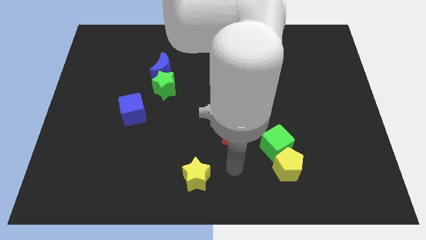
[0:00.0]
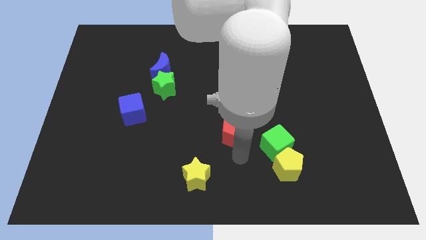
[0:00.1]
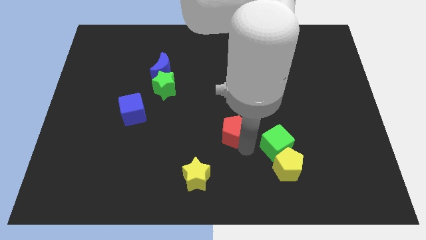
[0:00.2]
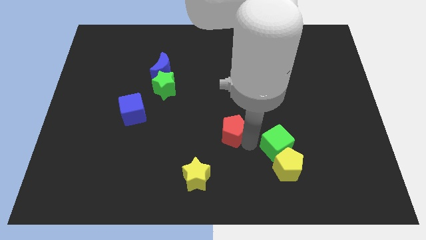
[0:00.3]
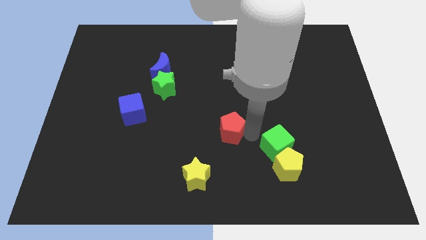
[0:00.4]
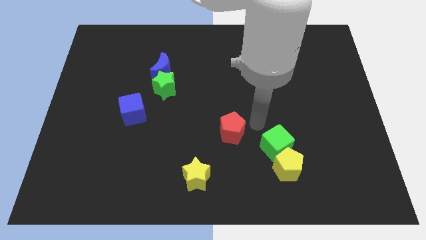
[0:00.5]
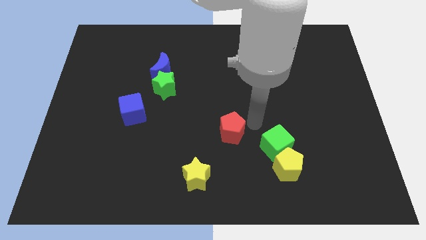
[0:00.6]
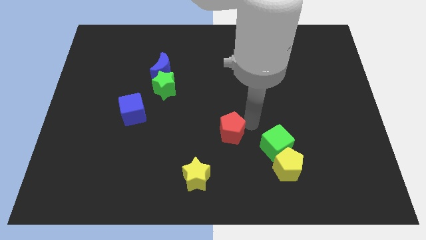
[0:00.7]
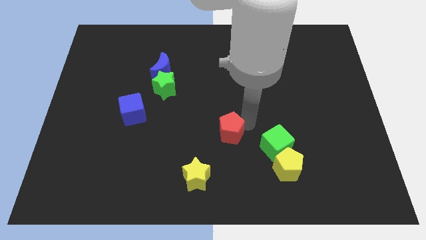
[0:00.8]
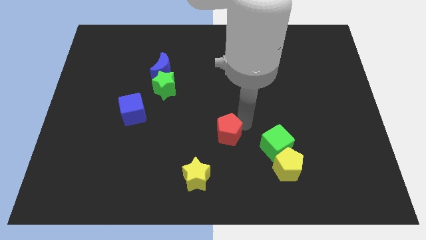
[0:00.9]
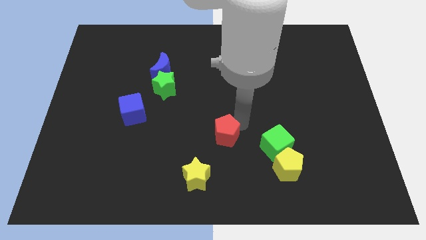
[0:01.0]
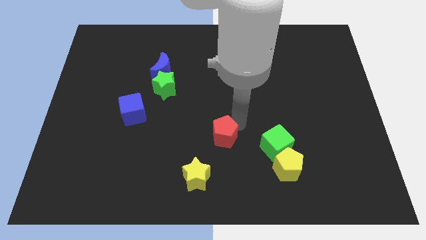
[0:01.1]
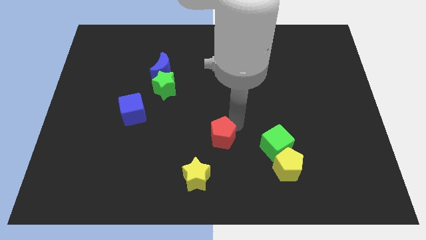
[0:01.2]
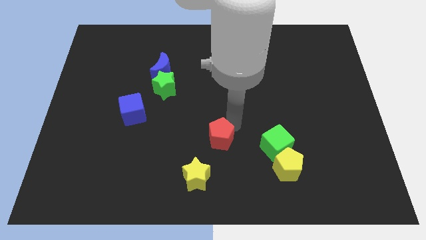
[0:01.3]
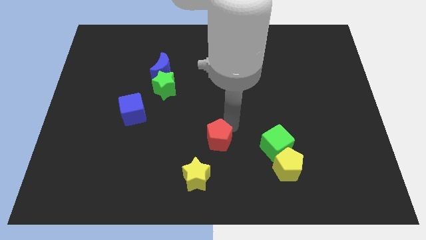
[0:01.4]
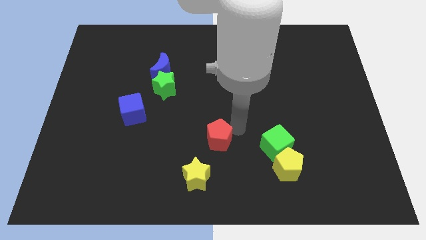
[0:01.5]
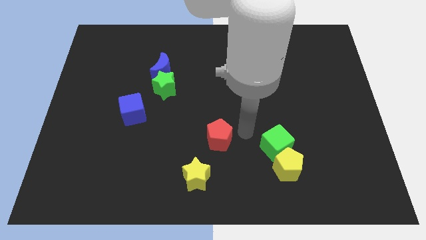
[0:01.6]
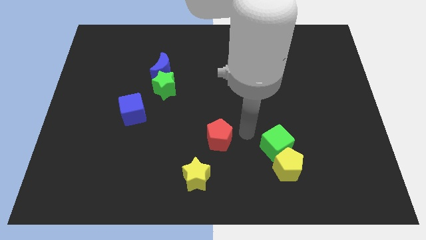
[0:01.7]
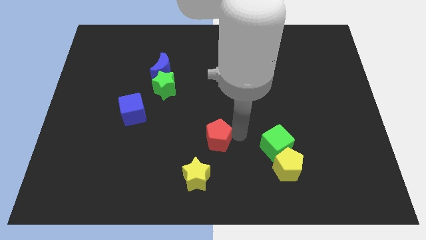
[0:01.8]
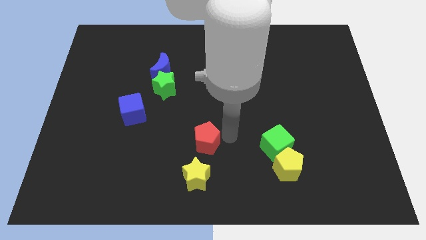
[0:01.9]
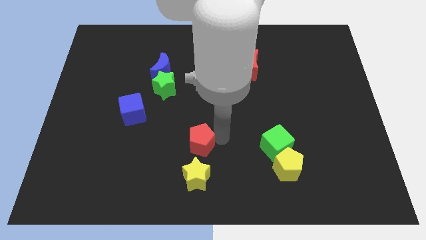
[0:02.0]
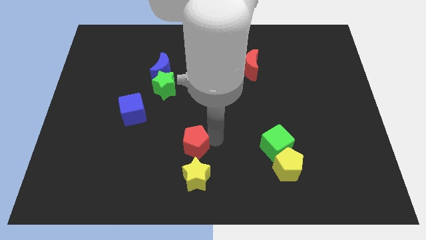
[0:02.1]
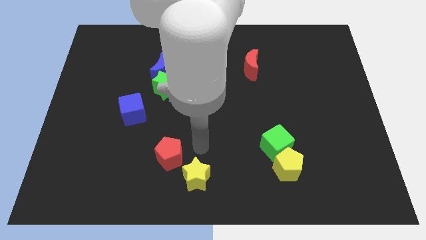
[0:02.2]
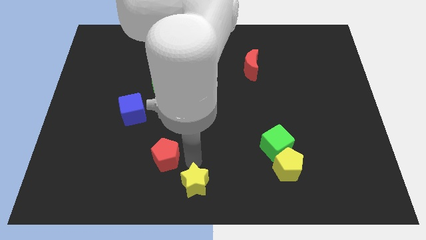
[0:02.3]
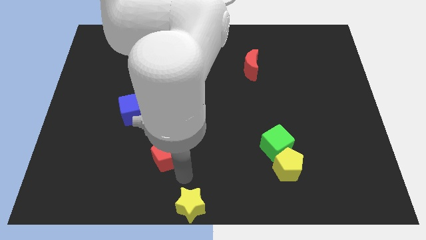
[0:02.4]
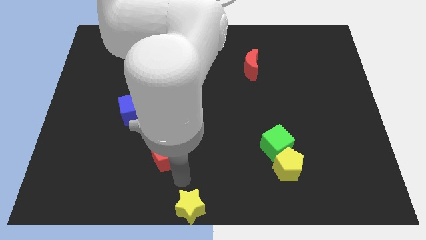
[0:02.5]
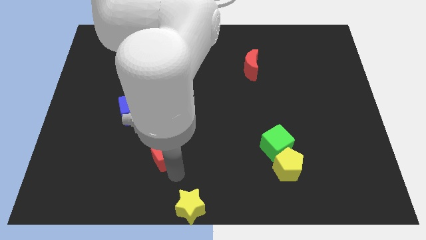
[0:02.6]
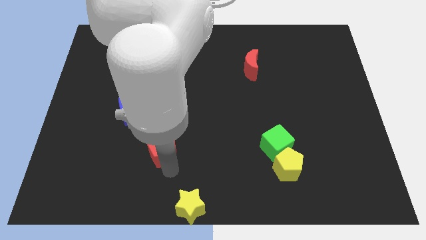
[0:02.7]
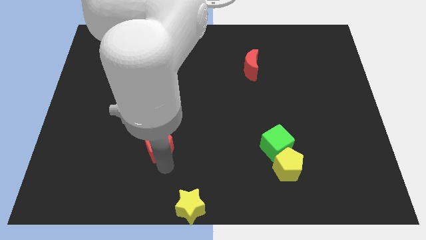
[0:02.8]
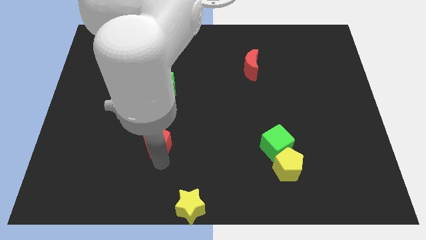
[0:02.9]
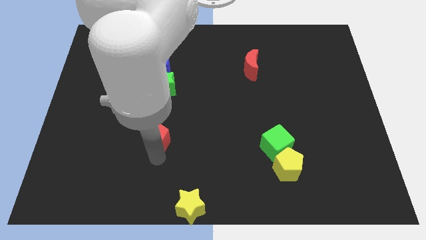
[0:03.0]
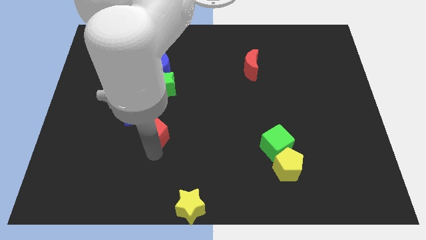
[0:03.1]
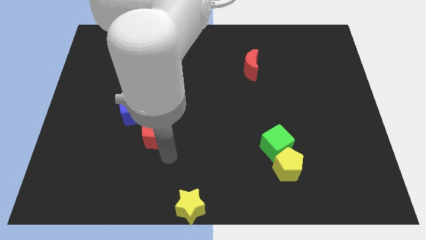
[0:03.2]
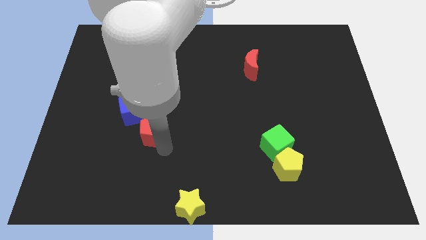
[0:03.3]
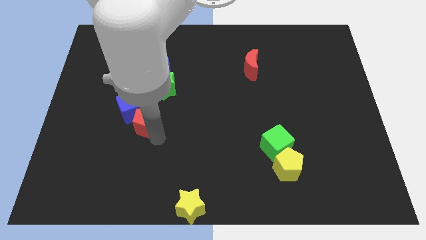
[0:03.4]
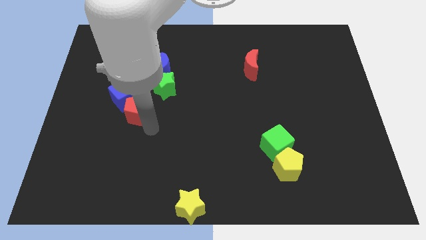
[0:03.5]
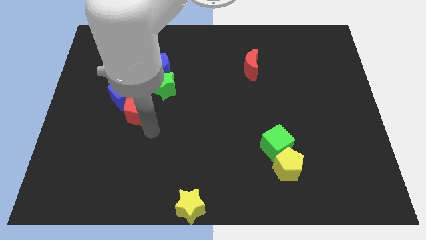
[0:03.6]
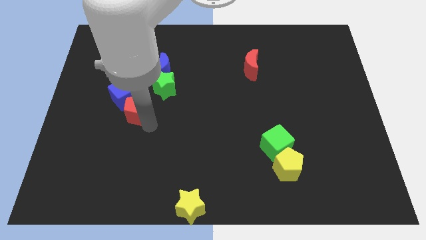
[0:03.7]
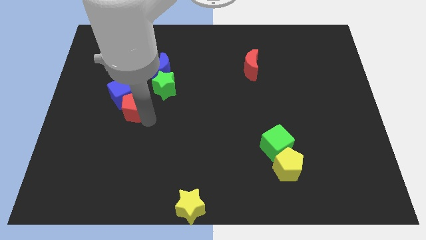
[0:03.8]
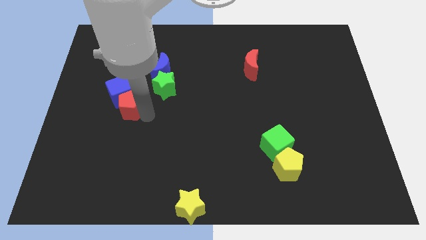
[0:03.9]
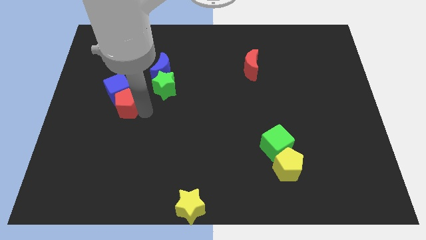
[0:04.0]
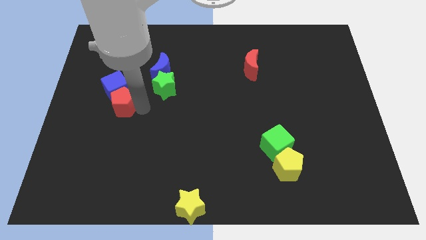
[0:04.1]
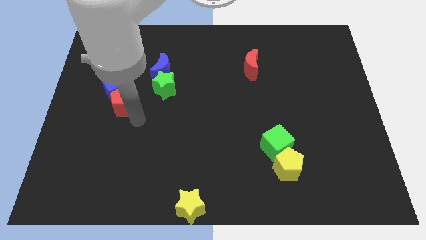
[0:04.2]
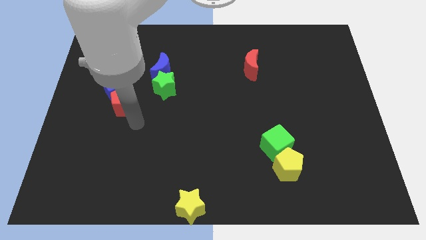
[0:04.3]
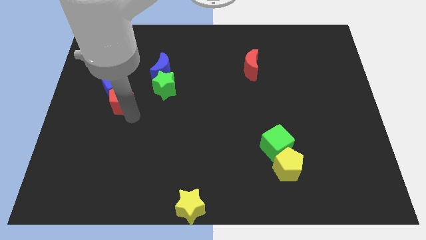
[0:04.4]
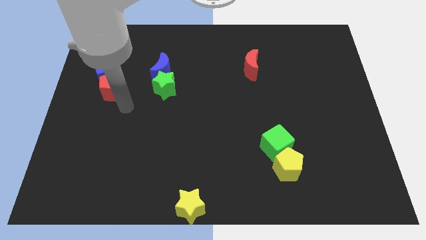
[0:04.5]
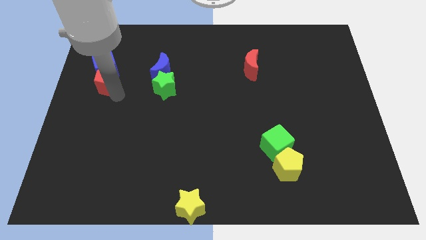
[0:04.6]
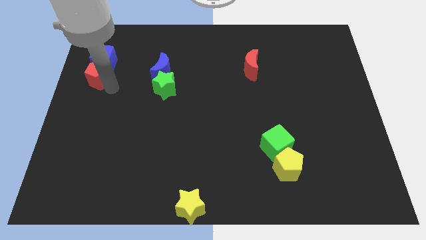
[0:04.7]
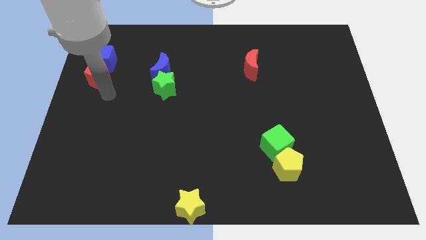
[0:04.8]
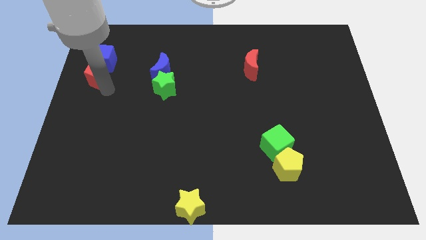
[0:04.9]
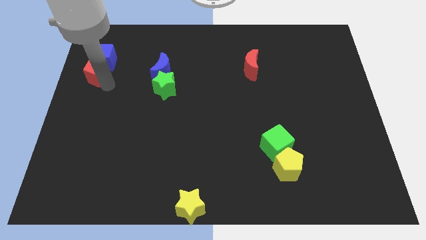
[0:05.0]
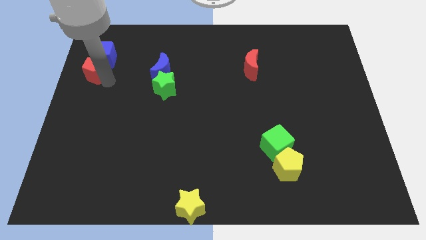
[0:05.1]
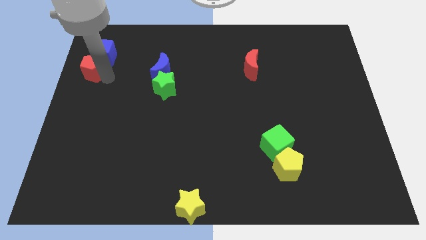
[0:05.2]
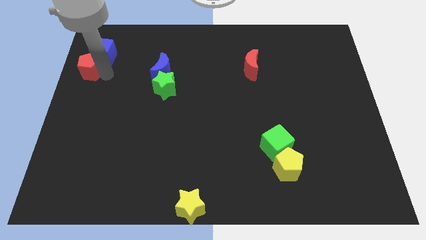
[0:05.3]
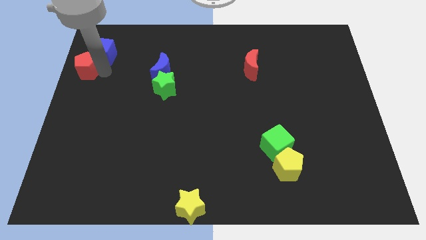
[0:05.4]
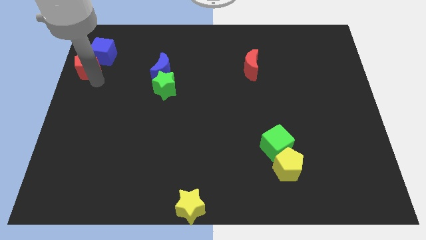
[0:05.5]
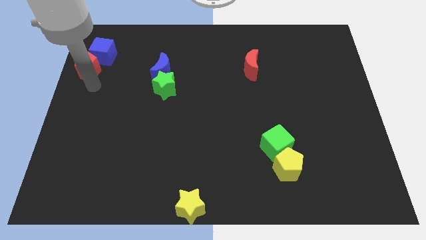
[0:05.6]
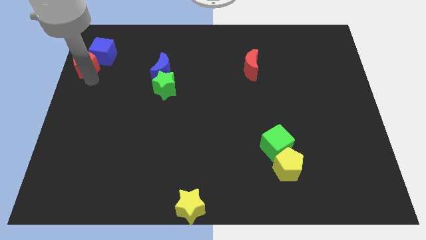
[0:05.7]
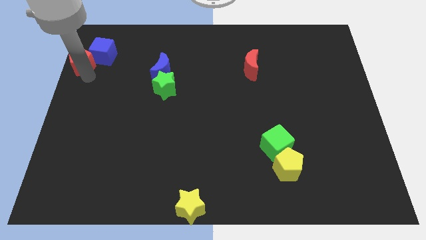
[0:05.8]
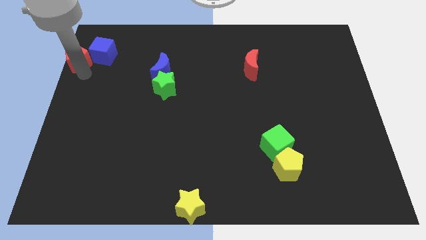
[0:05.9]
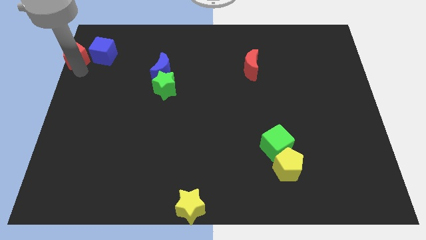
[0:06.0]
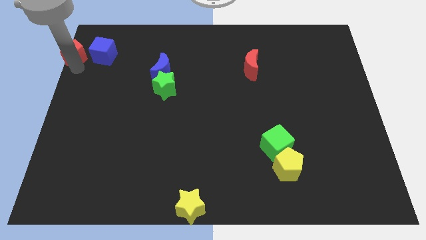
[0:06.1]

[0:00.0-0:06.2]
put the red pentagon to the top left
